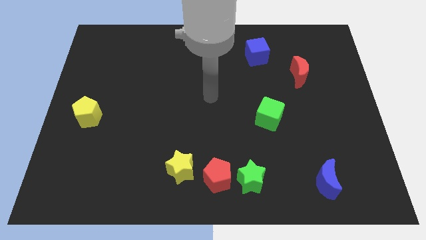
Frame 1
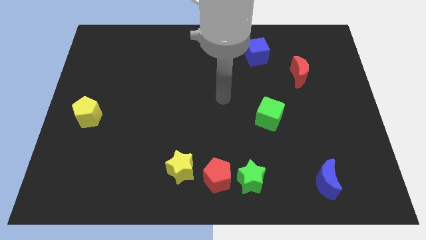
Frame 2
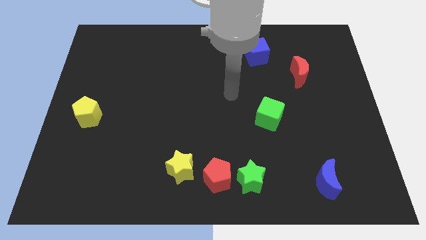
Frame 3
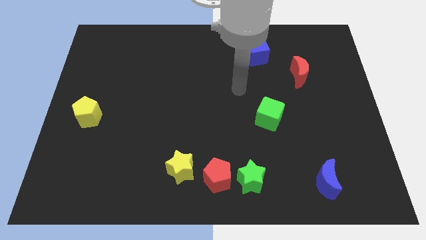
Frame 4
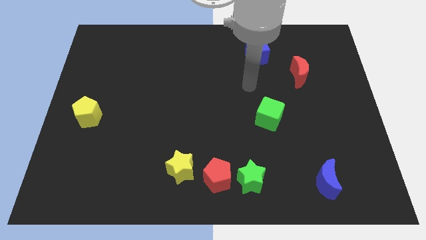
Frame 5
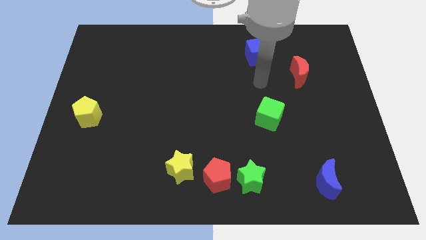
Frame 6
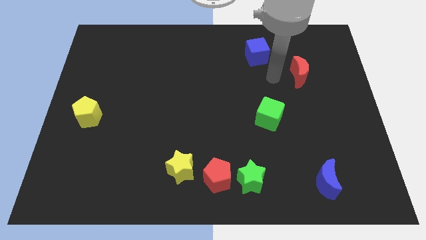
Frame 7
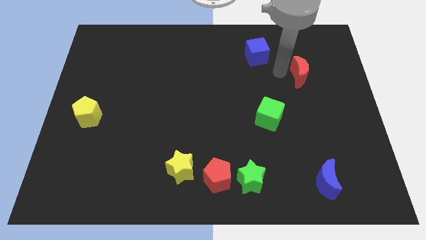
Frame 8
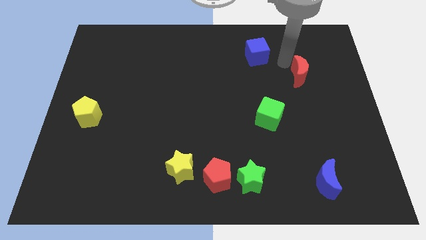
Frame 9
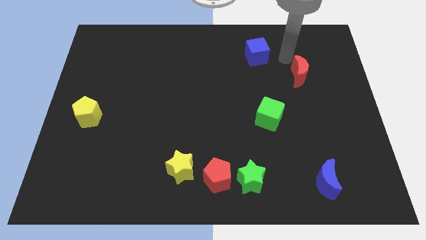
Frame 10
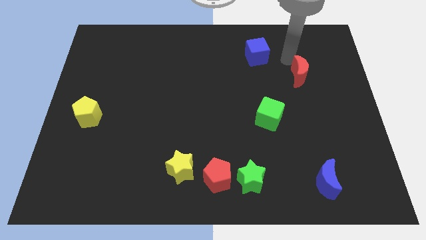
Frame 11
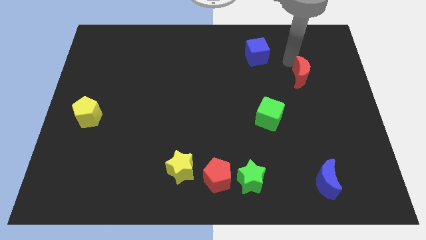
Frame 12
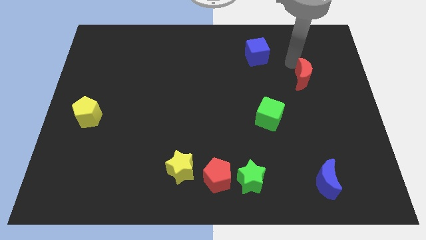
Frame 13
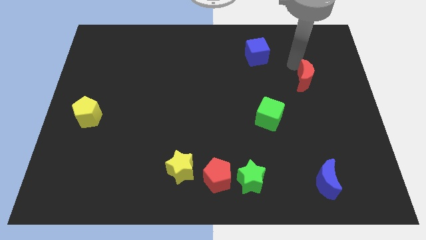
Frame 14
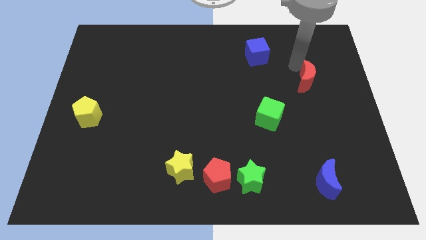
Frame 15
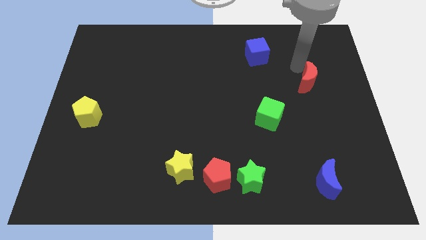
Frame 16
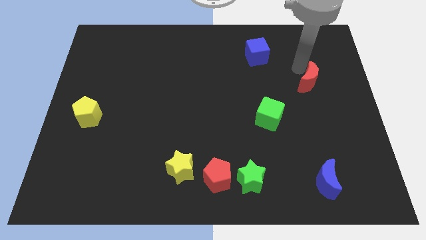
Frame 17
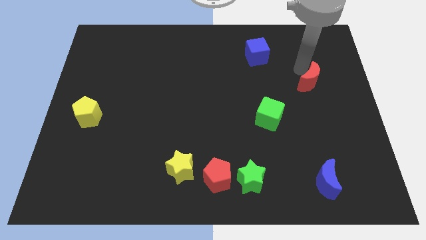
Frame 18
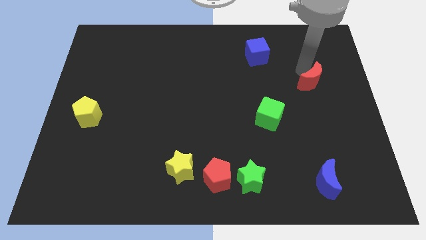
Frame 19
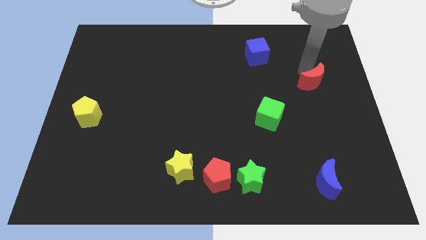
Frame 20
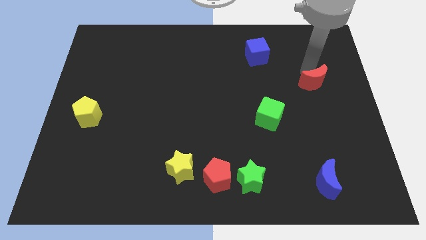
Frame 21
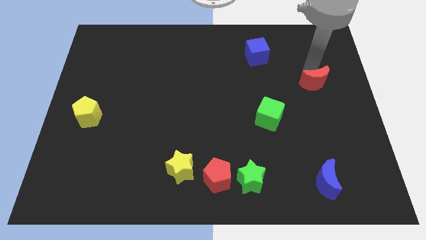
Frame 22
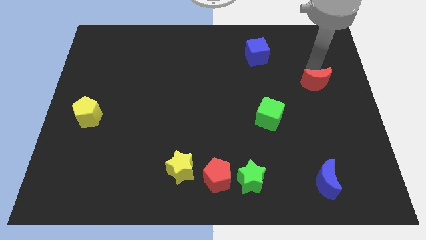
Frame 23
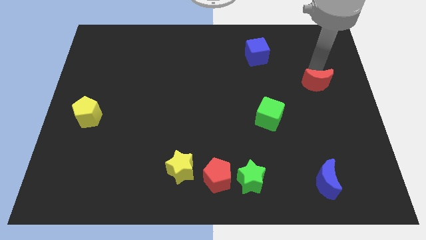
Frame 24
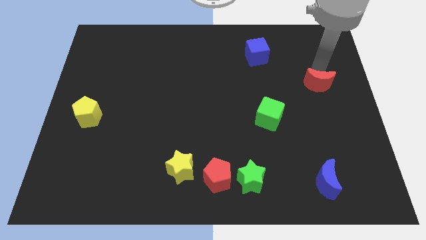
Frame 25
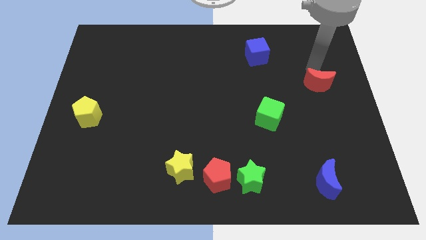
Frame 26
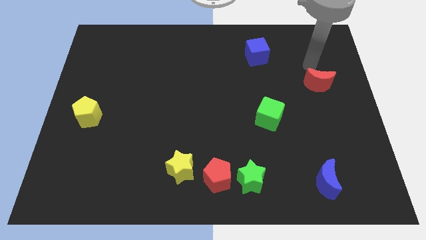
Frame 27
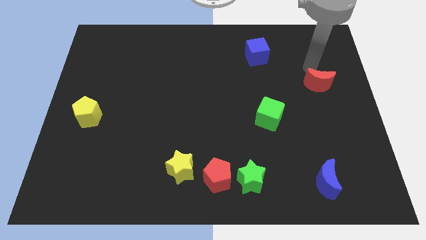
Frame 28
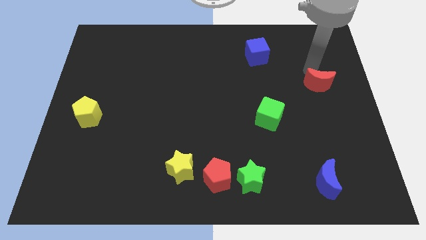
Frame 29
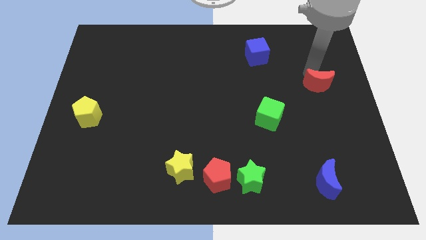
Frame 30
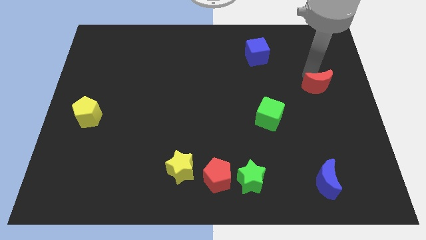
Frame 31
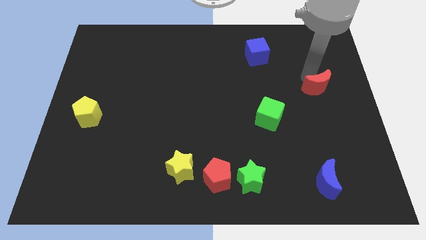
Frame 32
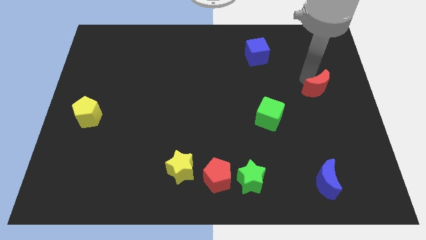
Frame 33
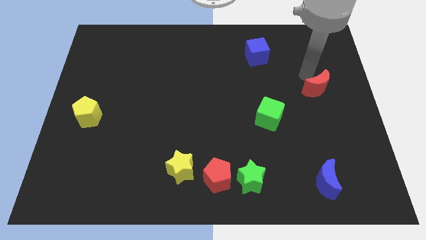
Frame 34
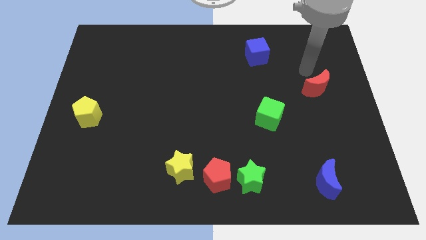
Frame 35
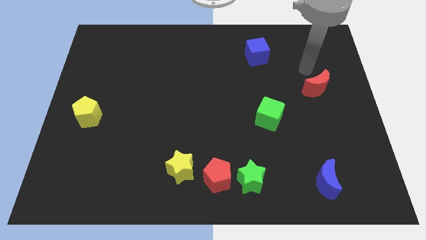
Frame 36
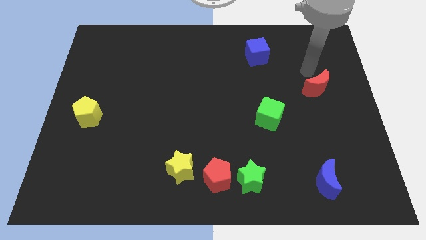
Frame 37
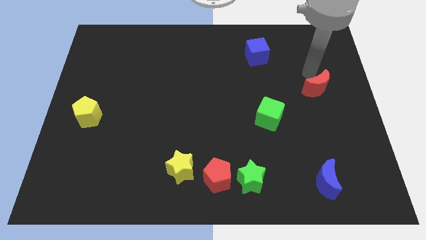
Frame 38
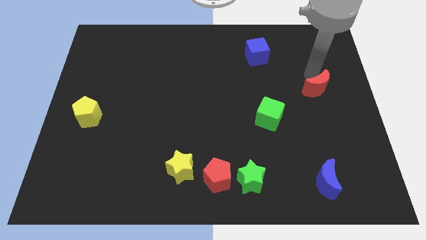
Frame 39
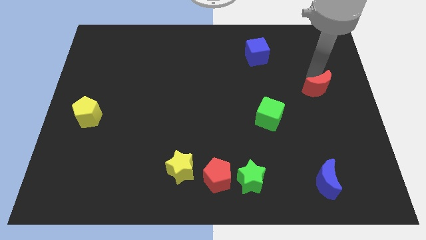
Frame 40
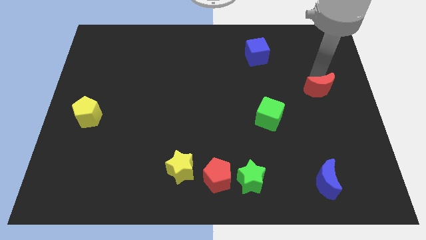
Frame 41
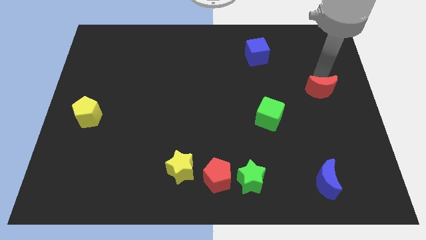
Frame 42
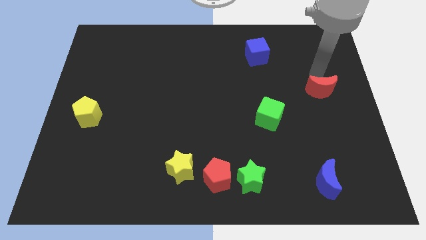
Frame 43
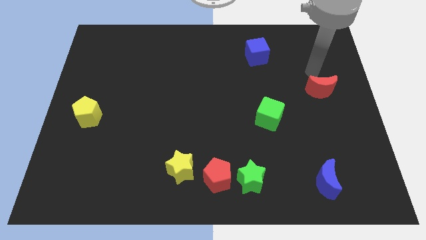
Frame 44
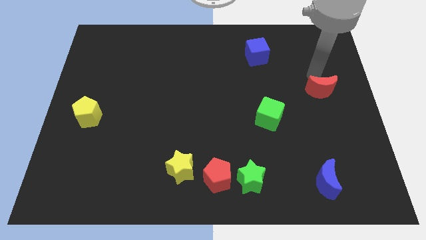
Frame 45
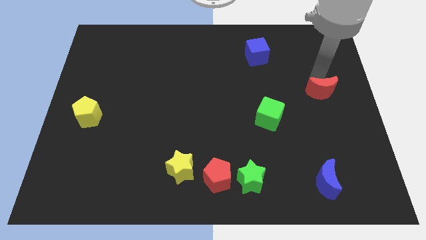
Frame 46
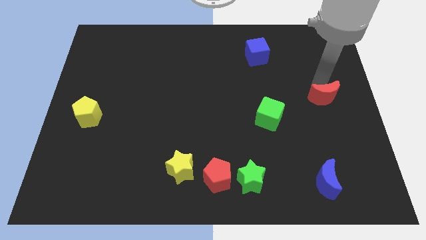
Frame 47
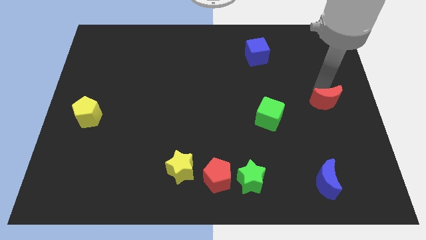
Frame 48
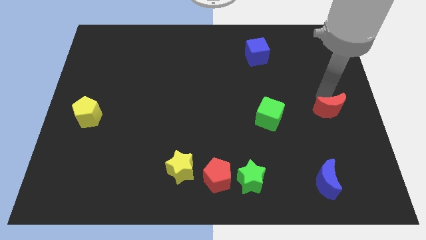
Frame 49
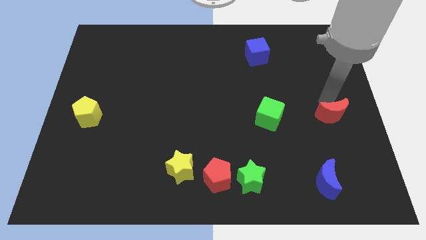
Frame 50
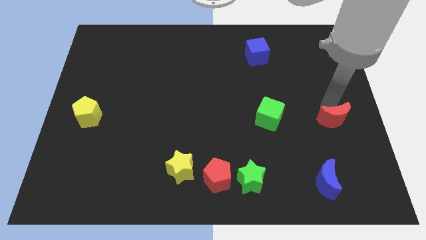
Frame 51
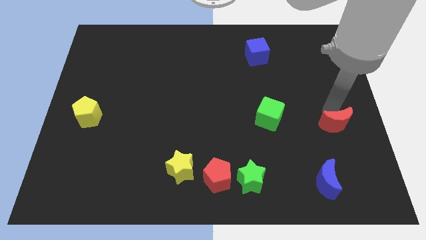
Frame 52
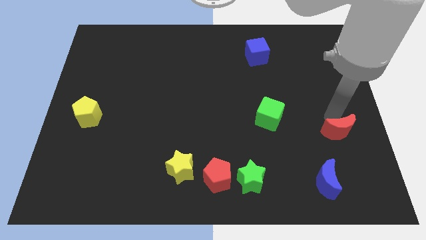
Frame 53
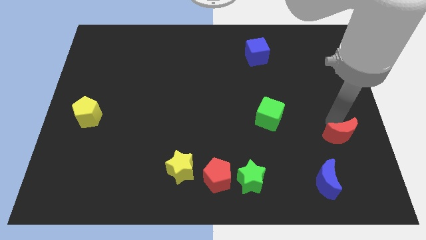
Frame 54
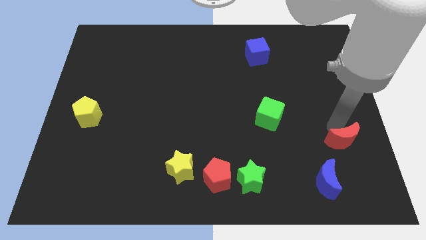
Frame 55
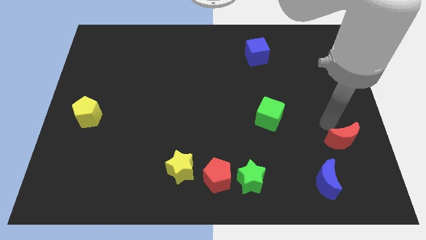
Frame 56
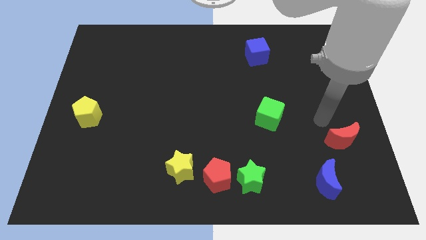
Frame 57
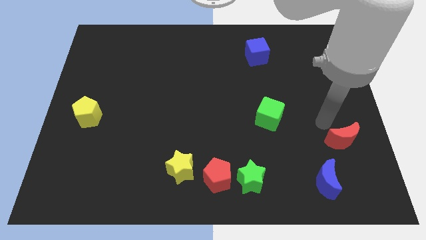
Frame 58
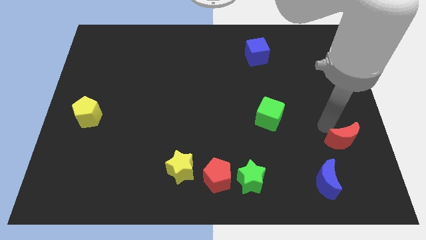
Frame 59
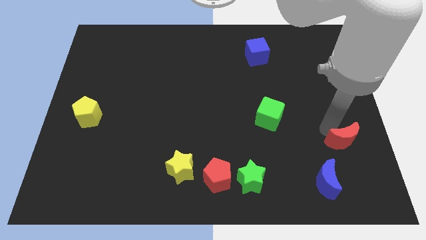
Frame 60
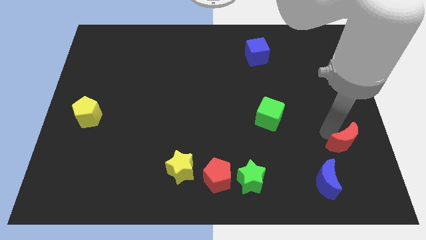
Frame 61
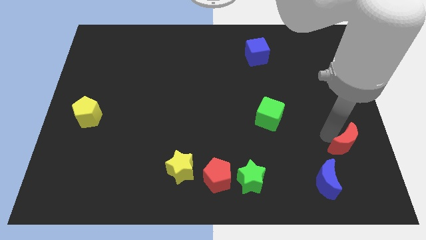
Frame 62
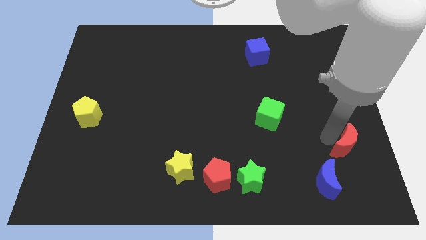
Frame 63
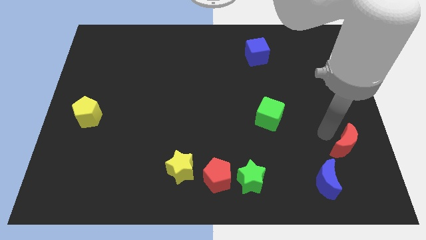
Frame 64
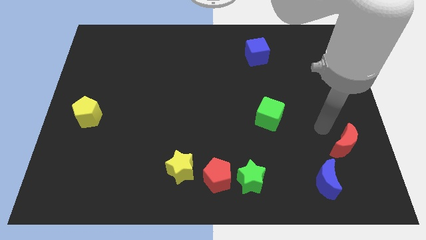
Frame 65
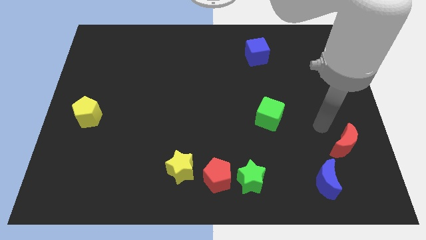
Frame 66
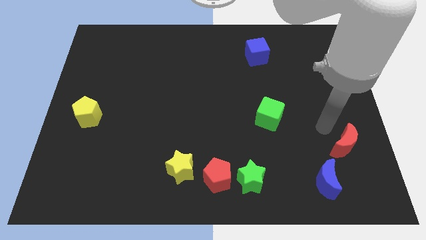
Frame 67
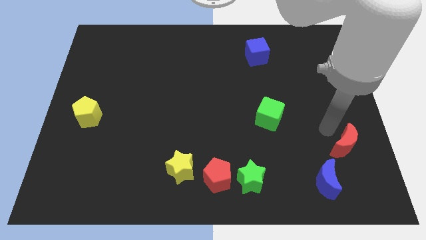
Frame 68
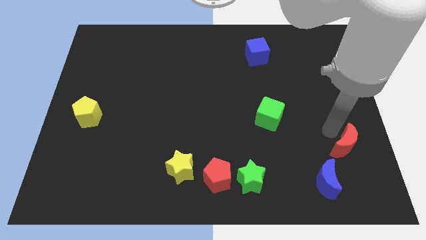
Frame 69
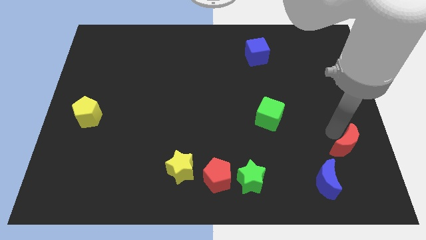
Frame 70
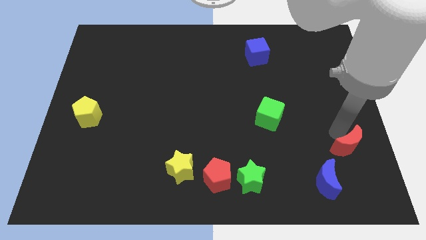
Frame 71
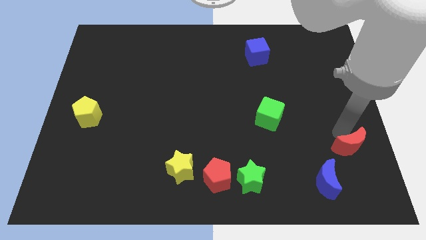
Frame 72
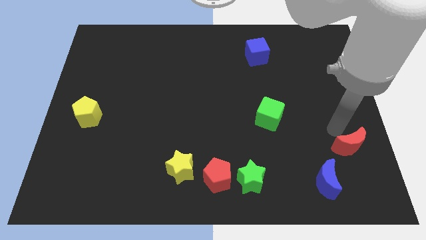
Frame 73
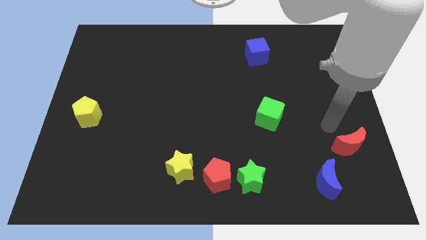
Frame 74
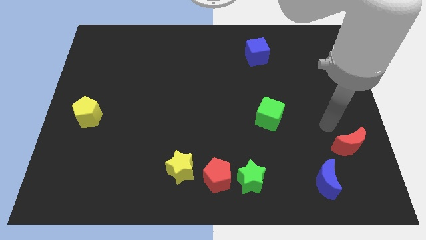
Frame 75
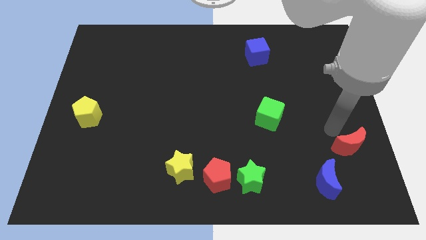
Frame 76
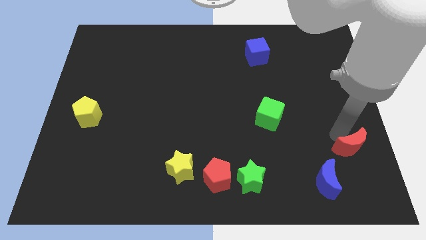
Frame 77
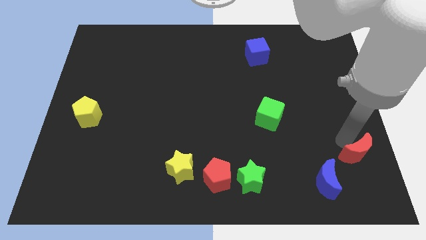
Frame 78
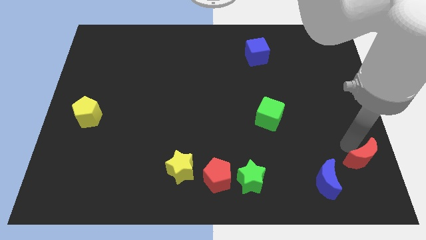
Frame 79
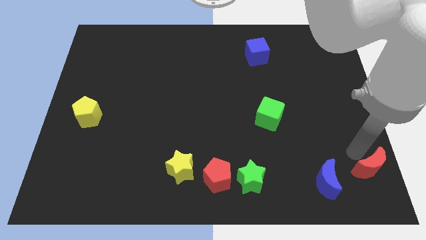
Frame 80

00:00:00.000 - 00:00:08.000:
slide the red moon to the bottom right of the board
